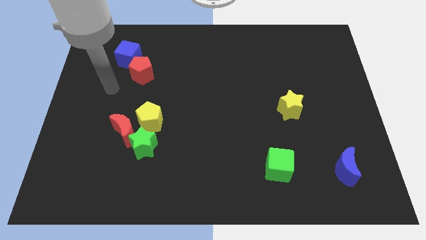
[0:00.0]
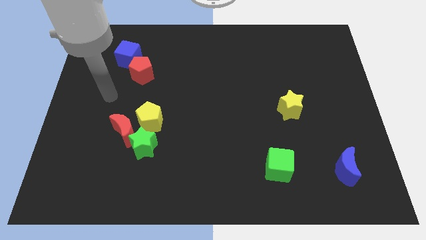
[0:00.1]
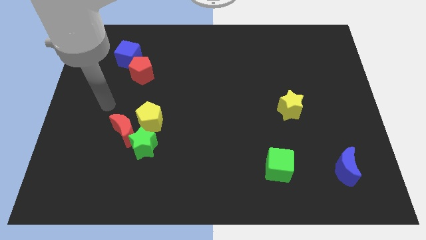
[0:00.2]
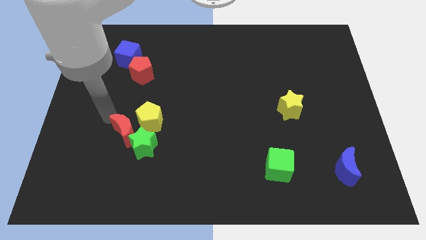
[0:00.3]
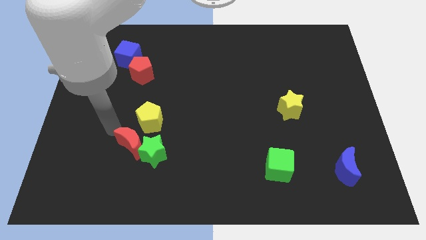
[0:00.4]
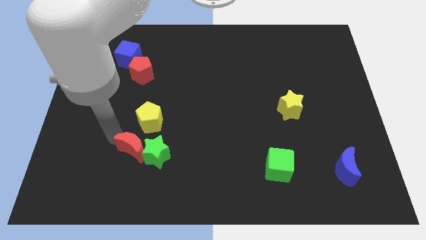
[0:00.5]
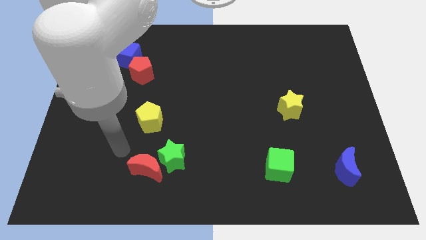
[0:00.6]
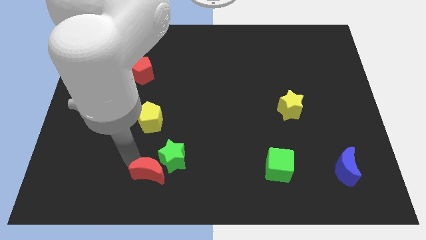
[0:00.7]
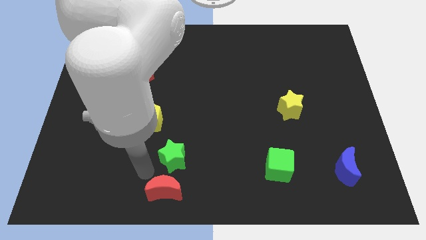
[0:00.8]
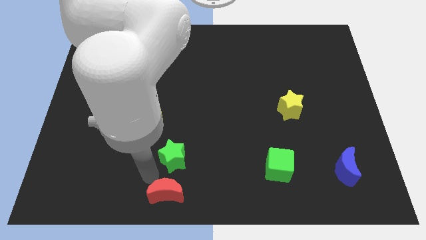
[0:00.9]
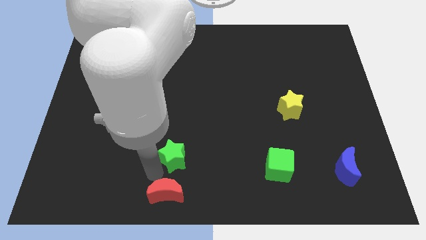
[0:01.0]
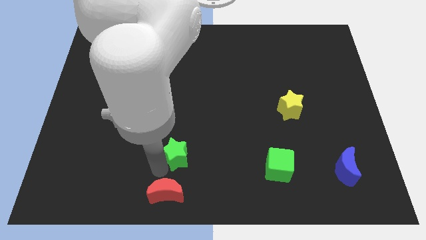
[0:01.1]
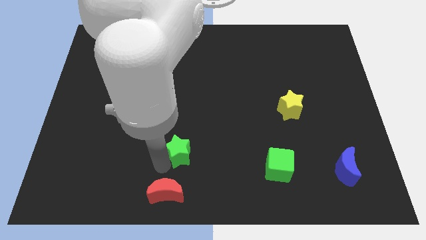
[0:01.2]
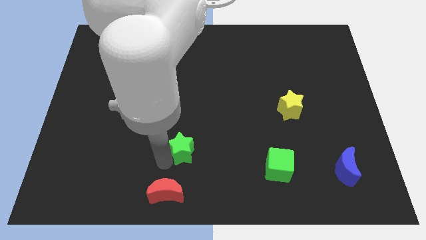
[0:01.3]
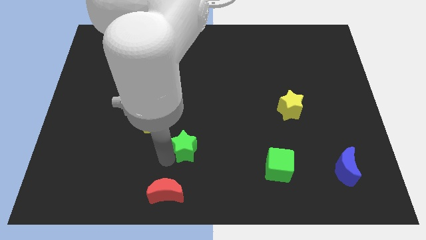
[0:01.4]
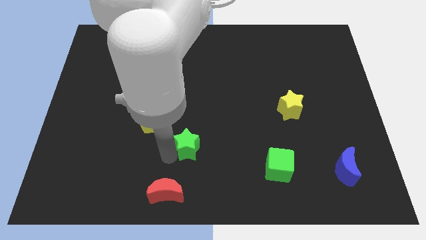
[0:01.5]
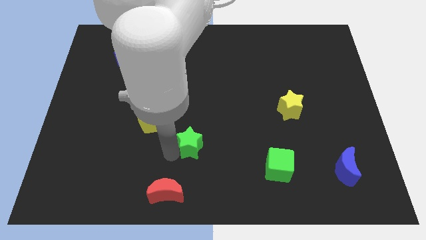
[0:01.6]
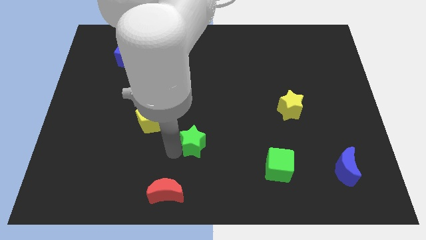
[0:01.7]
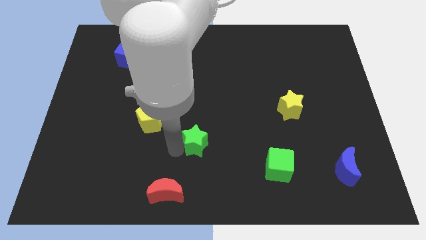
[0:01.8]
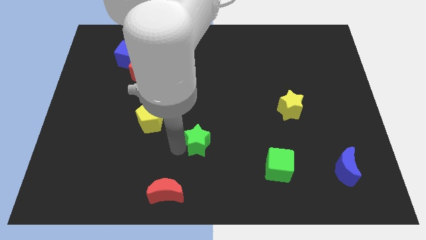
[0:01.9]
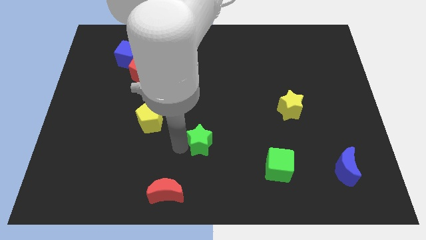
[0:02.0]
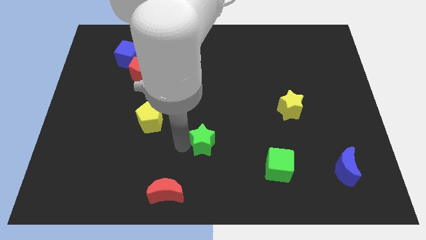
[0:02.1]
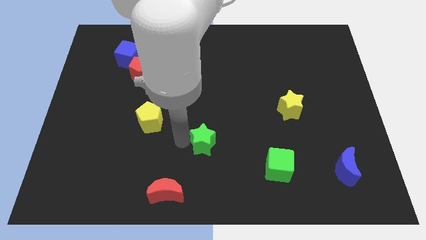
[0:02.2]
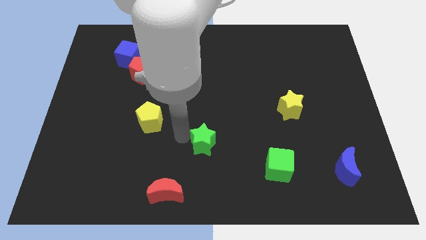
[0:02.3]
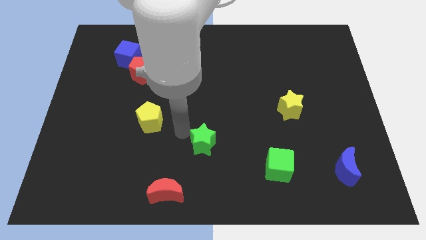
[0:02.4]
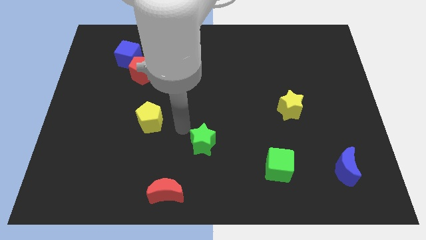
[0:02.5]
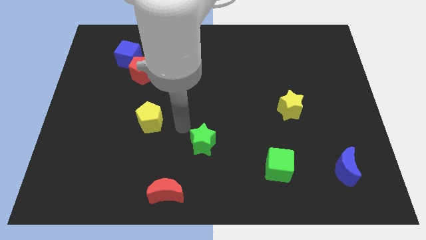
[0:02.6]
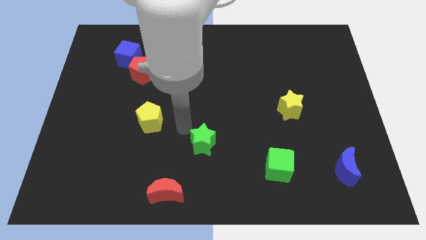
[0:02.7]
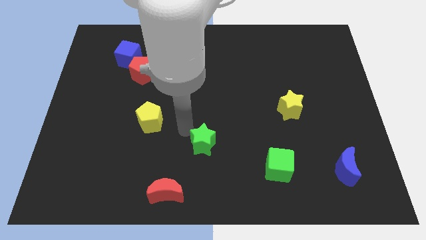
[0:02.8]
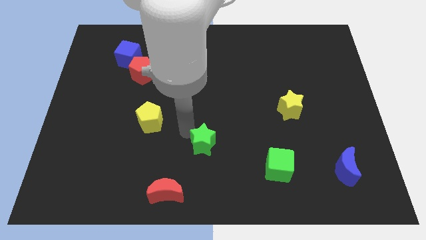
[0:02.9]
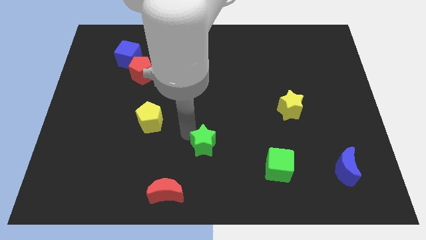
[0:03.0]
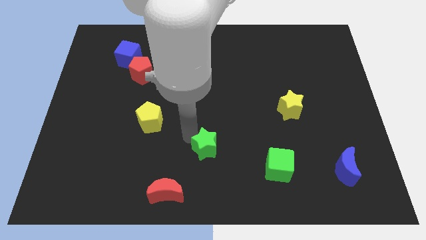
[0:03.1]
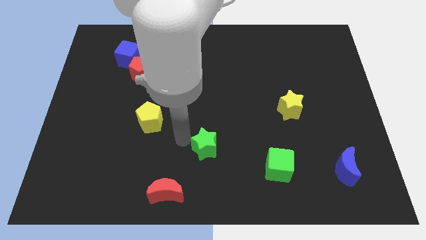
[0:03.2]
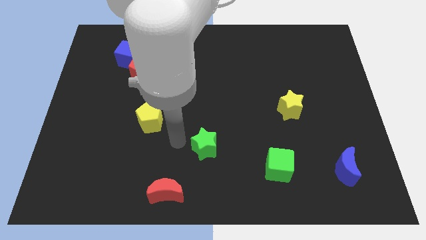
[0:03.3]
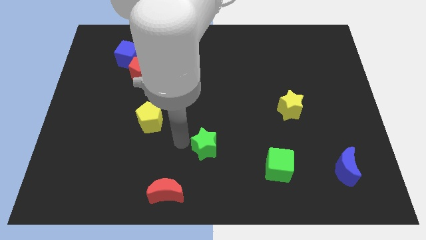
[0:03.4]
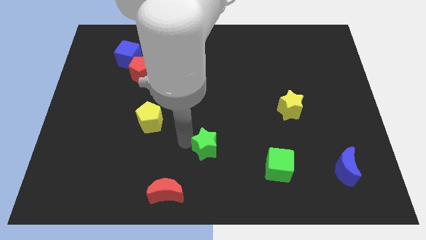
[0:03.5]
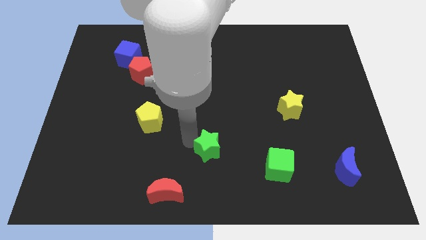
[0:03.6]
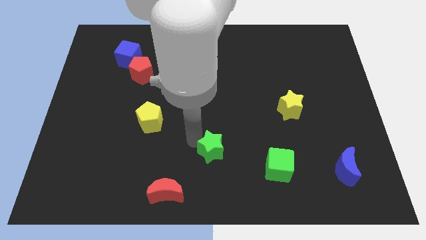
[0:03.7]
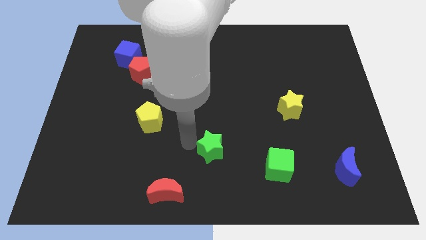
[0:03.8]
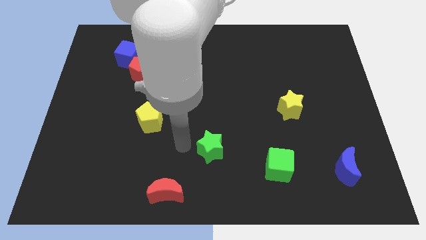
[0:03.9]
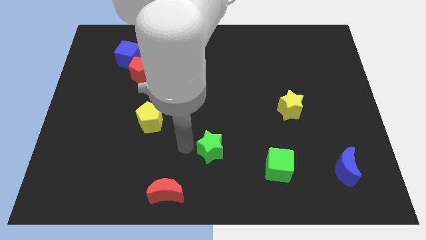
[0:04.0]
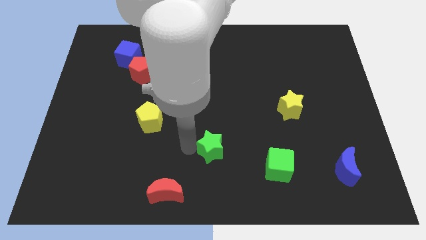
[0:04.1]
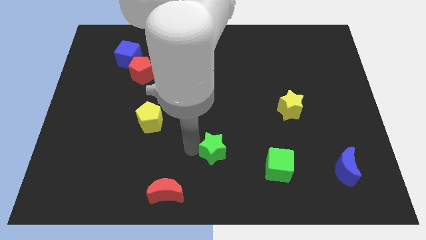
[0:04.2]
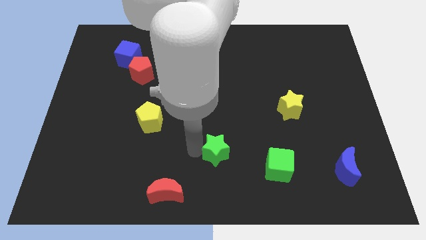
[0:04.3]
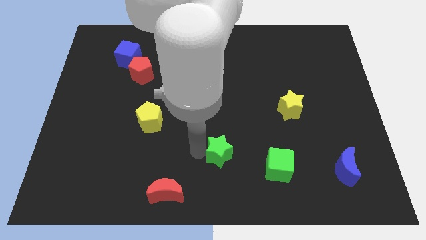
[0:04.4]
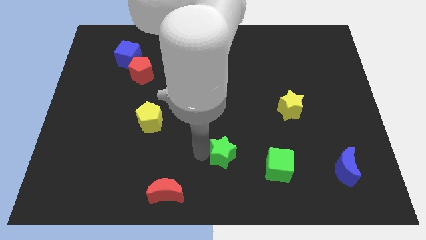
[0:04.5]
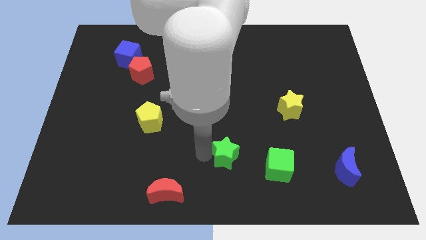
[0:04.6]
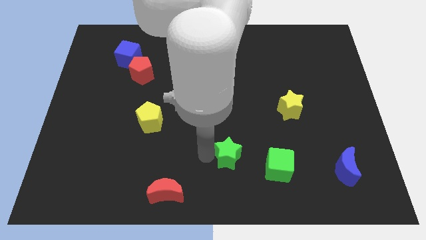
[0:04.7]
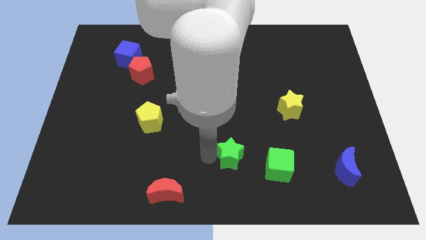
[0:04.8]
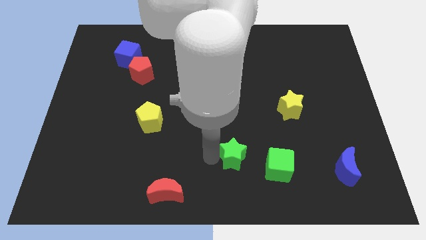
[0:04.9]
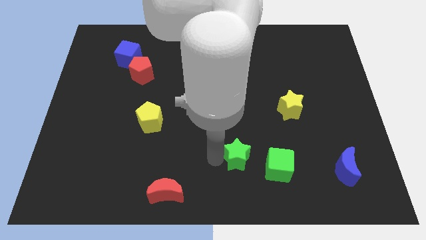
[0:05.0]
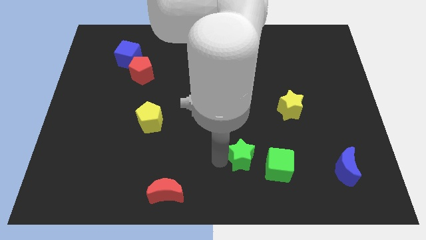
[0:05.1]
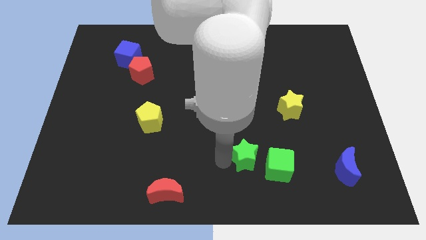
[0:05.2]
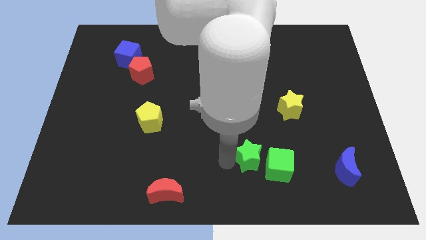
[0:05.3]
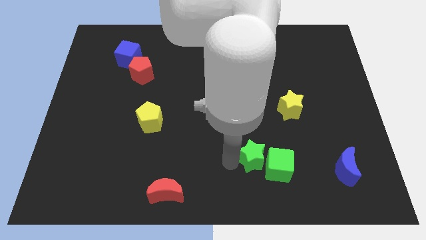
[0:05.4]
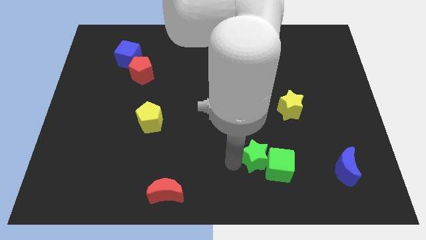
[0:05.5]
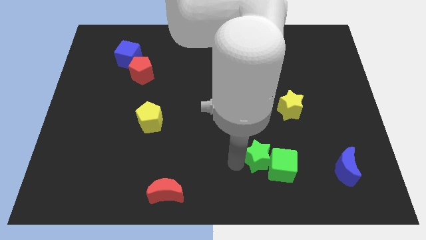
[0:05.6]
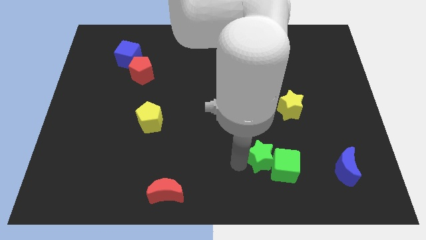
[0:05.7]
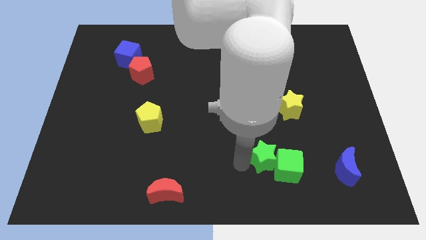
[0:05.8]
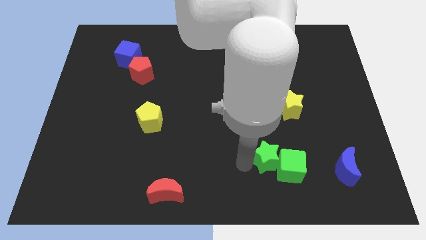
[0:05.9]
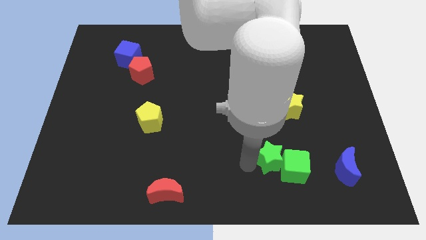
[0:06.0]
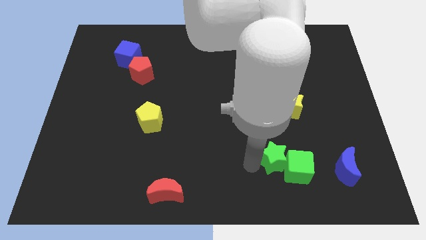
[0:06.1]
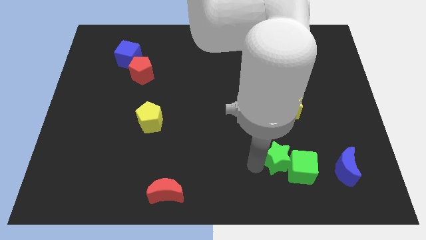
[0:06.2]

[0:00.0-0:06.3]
push the green star below the yellow star

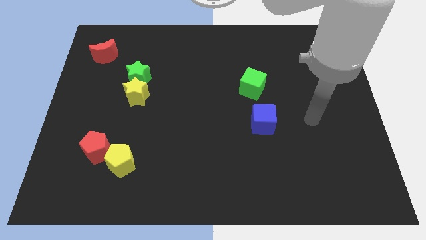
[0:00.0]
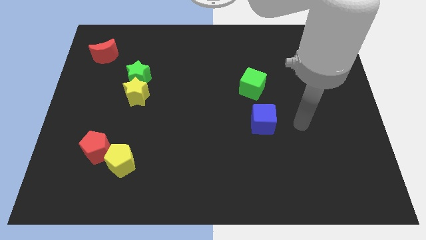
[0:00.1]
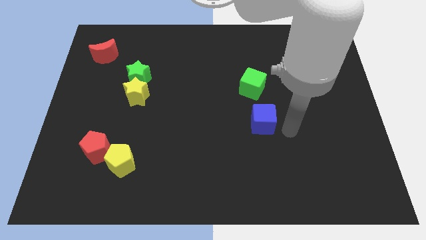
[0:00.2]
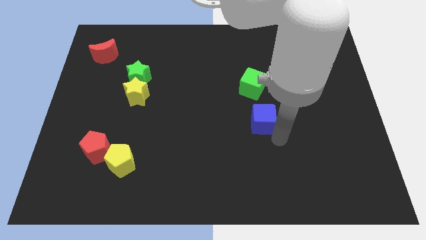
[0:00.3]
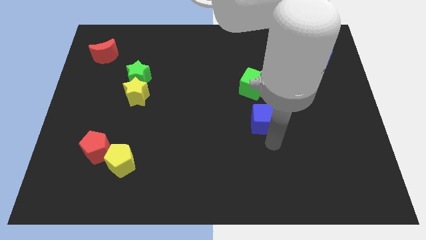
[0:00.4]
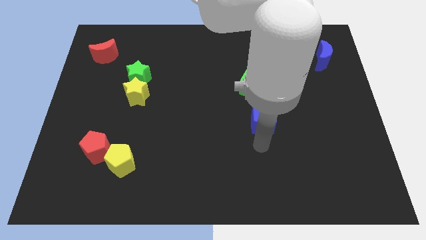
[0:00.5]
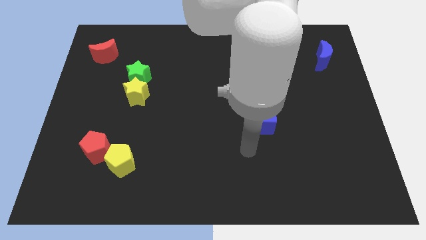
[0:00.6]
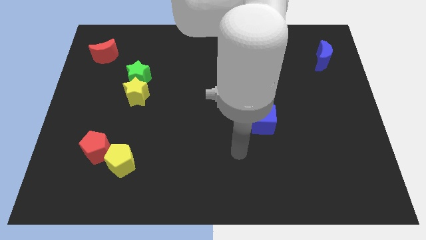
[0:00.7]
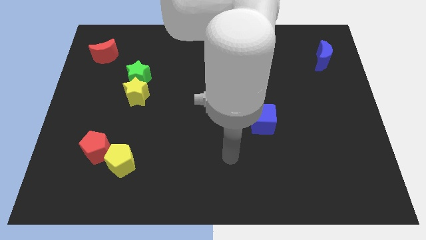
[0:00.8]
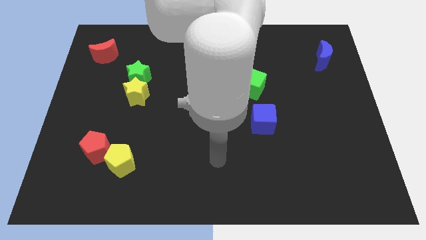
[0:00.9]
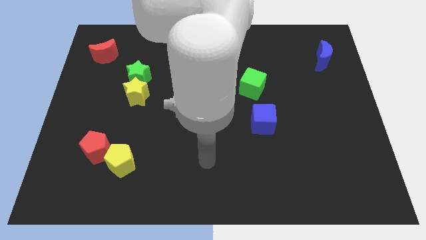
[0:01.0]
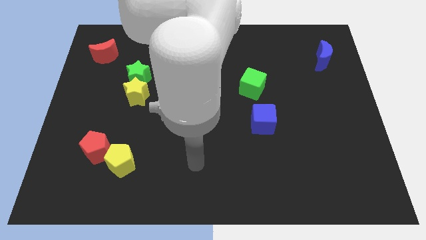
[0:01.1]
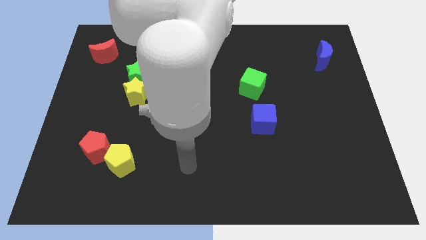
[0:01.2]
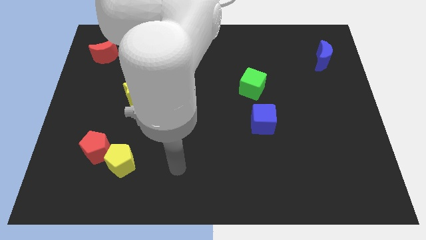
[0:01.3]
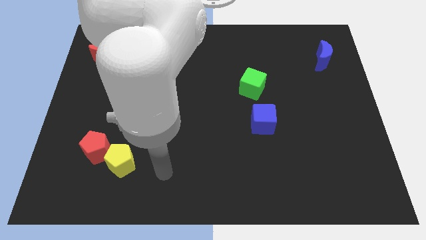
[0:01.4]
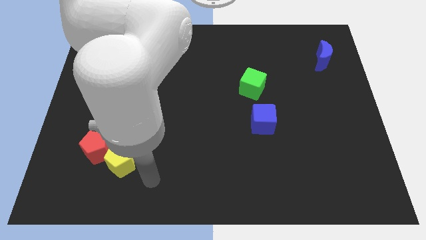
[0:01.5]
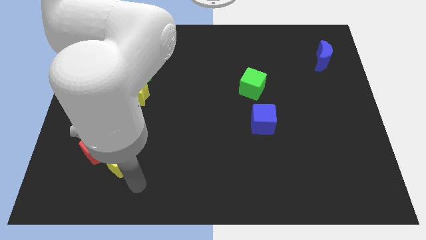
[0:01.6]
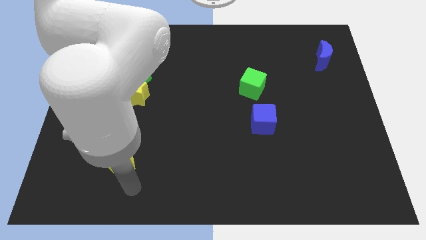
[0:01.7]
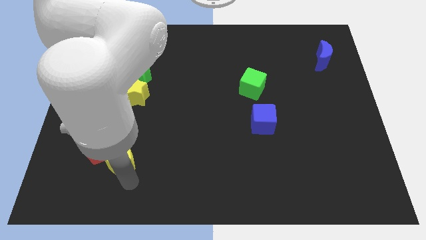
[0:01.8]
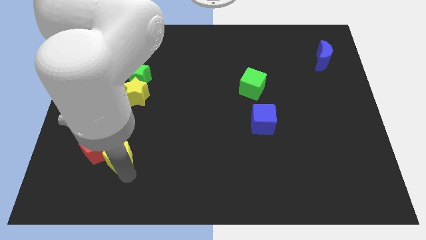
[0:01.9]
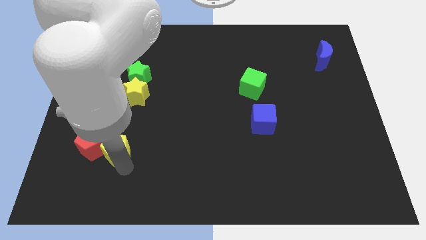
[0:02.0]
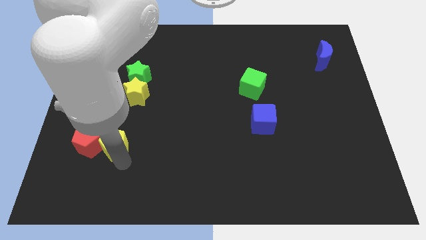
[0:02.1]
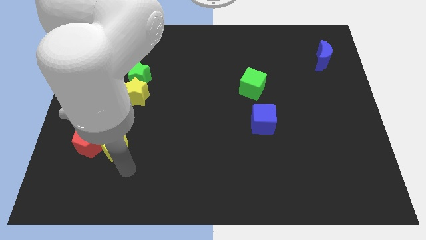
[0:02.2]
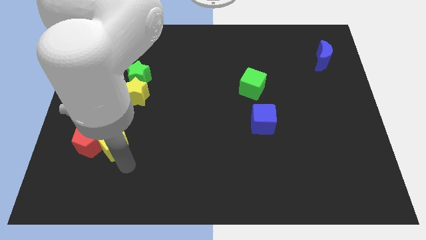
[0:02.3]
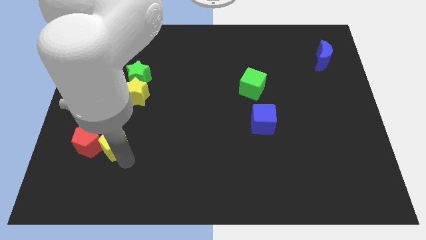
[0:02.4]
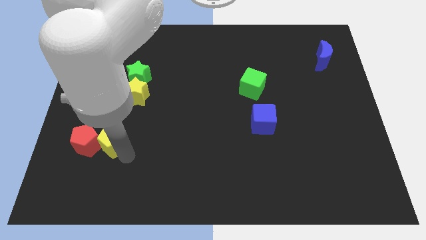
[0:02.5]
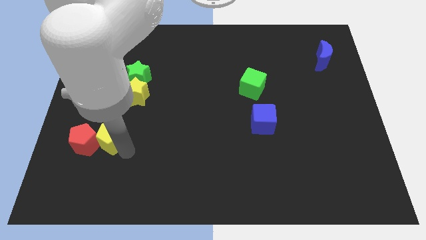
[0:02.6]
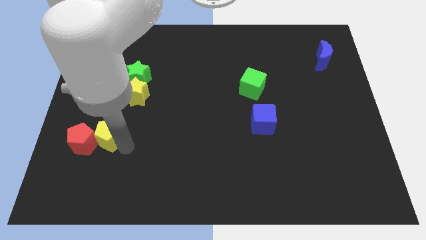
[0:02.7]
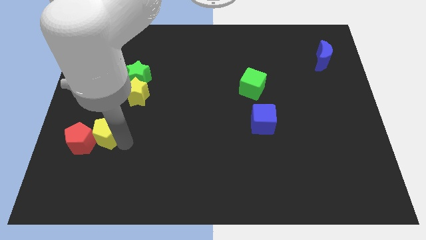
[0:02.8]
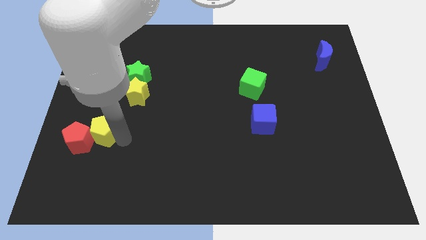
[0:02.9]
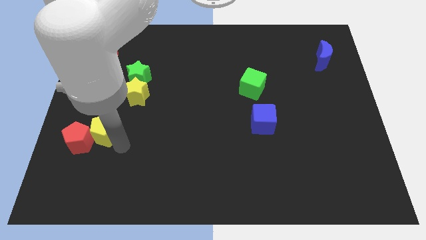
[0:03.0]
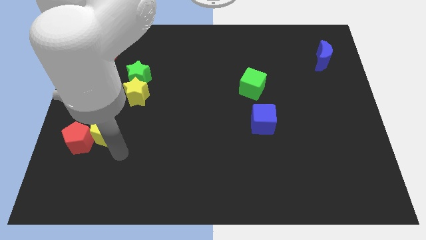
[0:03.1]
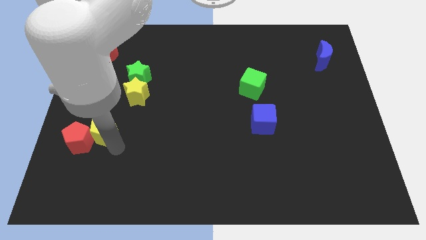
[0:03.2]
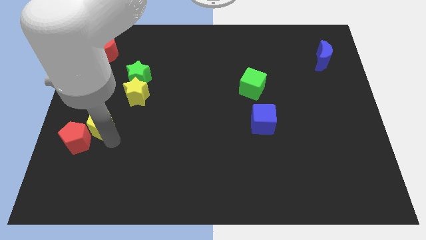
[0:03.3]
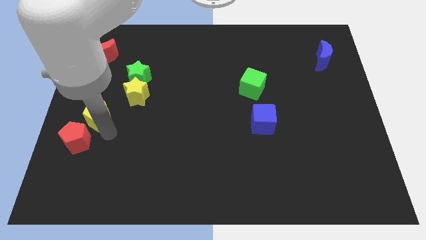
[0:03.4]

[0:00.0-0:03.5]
move the yellow pentagon to the top of the red pentagon
